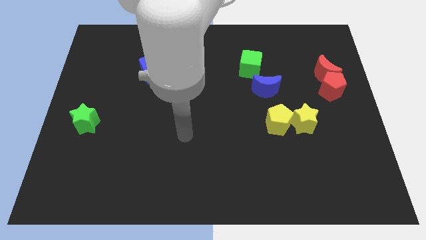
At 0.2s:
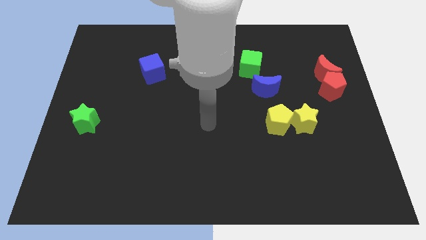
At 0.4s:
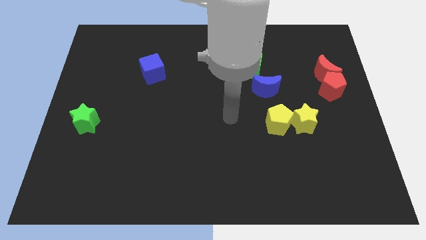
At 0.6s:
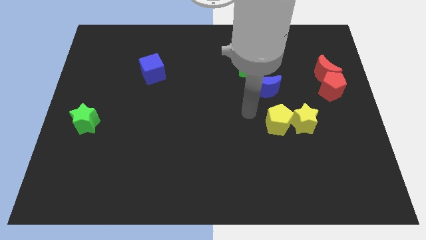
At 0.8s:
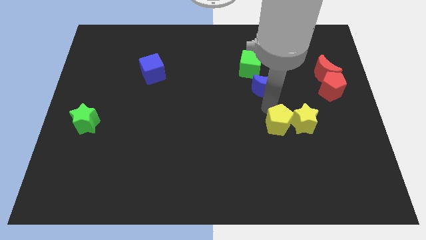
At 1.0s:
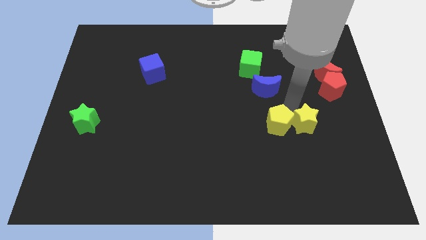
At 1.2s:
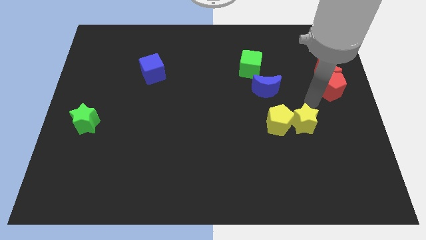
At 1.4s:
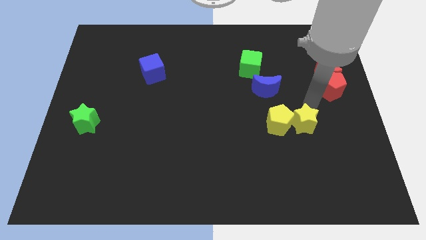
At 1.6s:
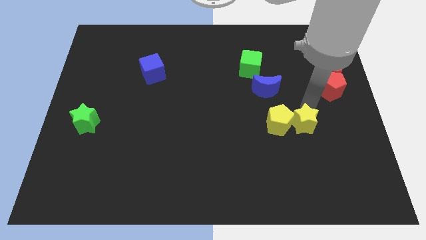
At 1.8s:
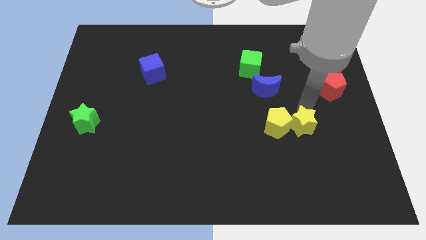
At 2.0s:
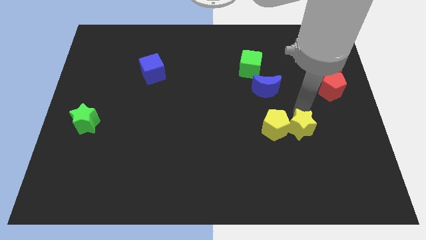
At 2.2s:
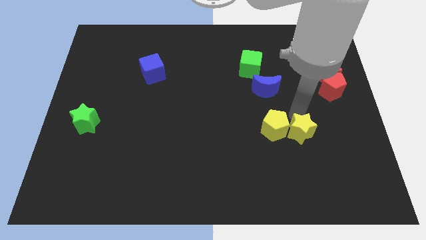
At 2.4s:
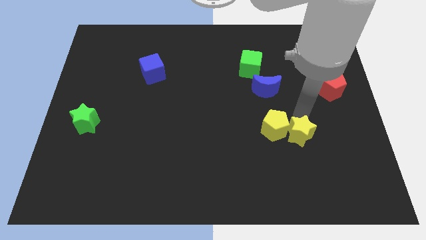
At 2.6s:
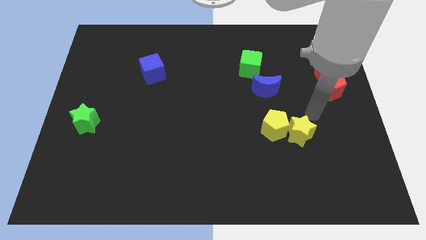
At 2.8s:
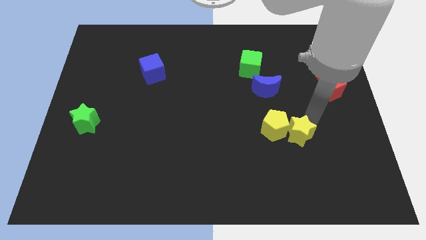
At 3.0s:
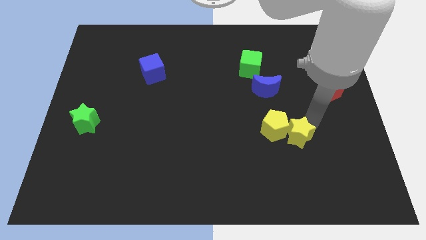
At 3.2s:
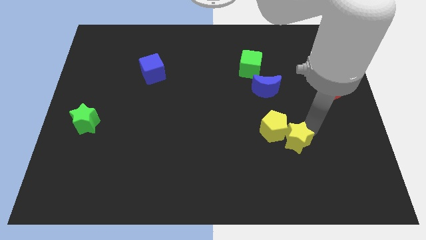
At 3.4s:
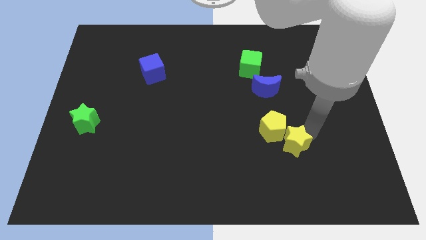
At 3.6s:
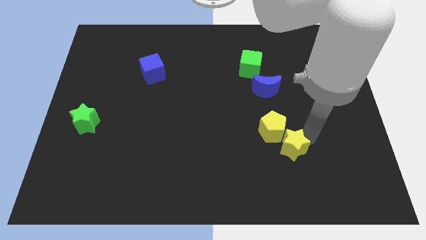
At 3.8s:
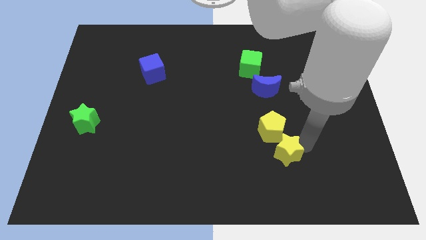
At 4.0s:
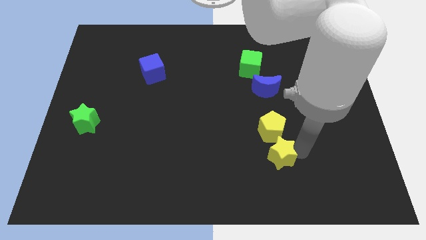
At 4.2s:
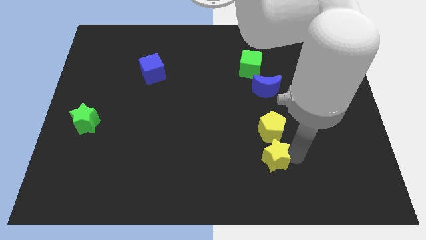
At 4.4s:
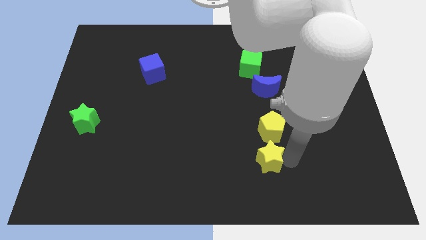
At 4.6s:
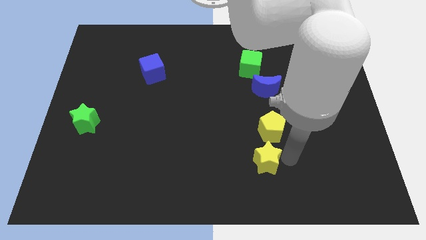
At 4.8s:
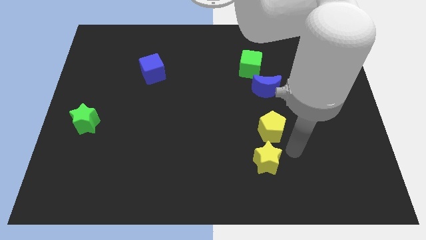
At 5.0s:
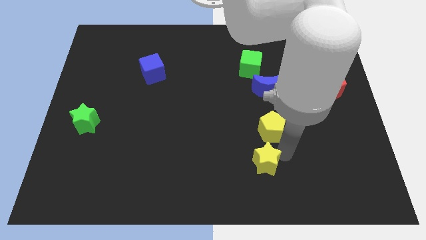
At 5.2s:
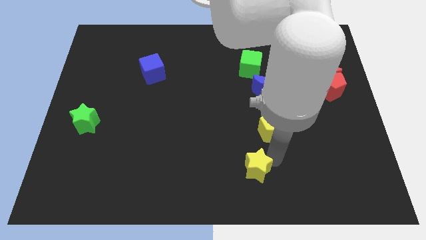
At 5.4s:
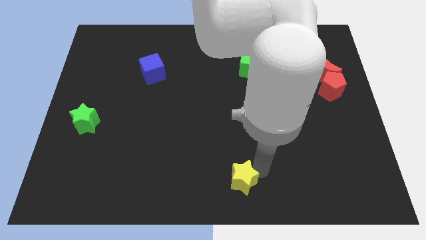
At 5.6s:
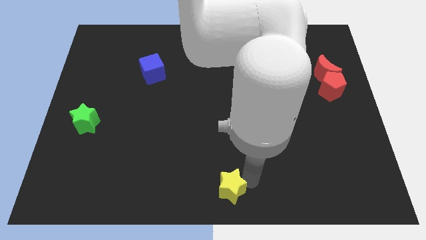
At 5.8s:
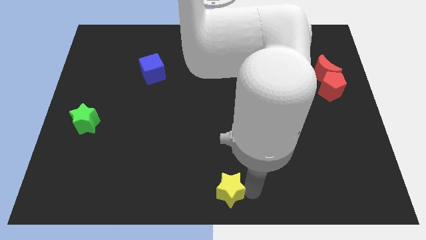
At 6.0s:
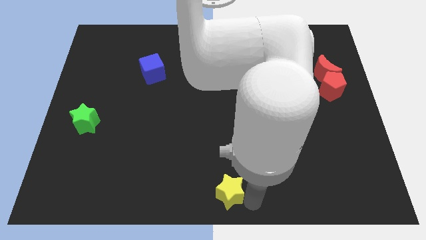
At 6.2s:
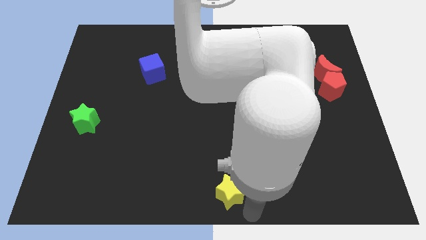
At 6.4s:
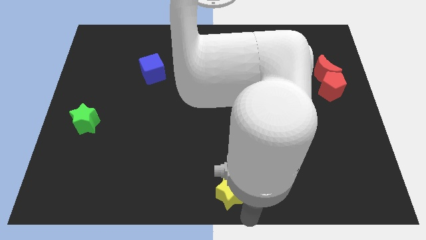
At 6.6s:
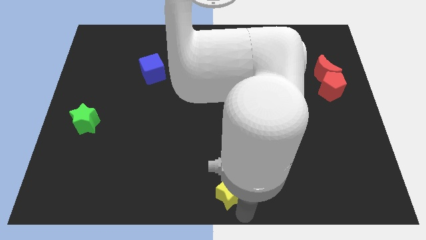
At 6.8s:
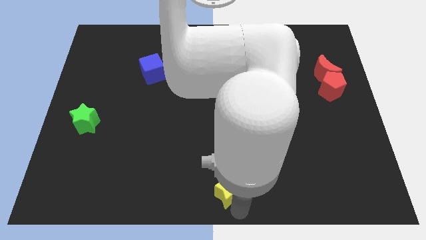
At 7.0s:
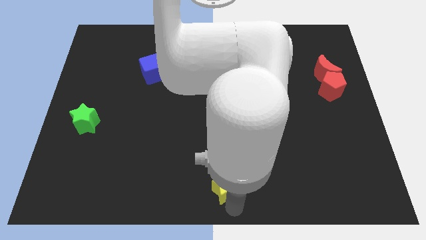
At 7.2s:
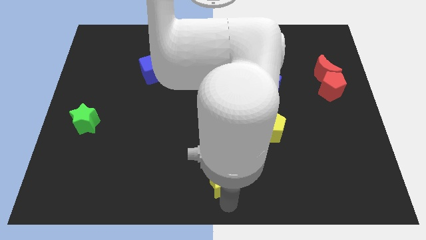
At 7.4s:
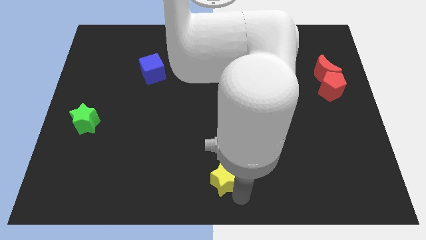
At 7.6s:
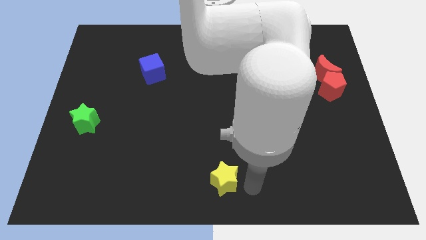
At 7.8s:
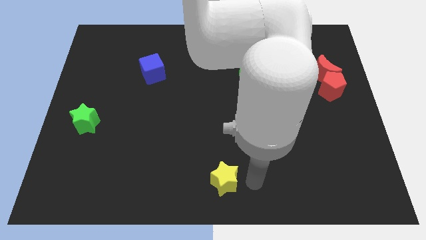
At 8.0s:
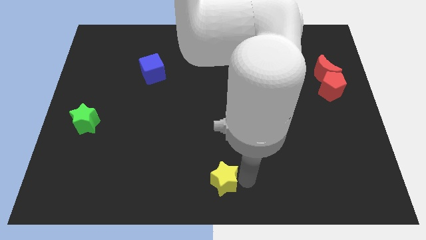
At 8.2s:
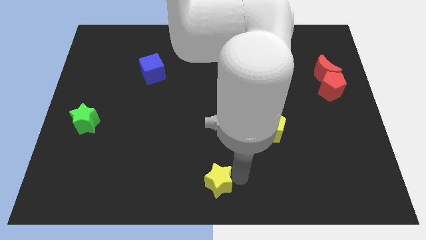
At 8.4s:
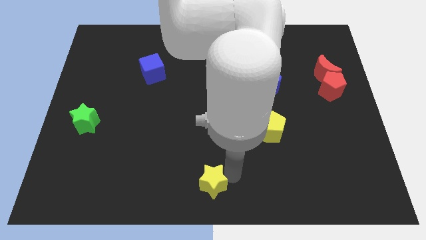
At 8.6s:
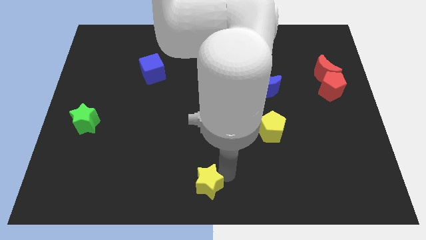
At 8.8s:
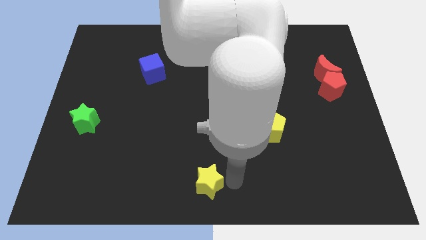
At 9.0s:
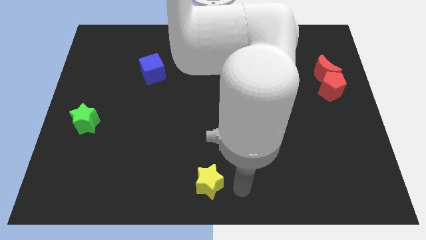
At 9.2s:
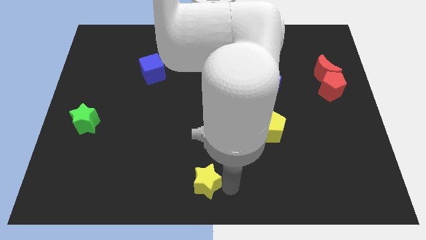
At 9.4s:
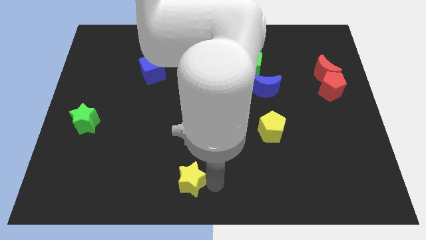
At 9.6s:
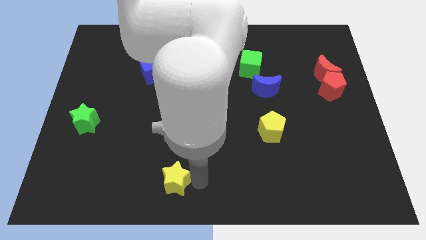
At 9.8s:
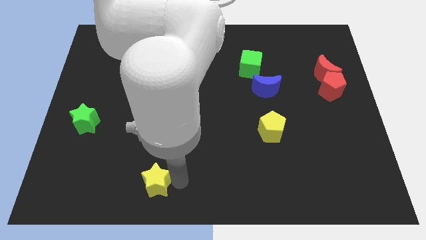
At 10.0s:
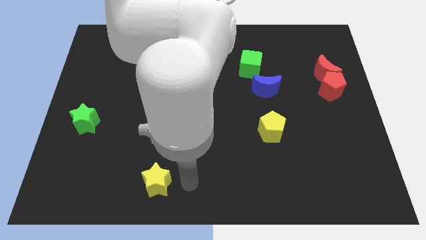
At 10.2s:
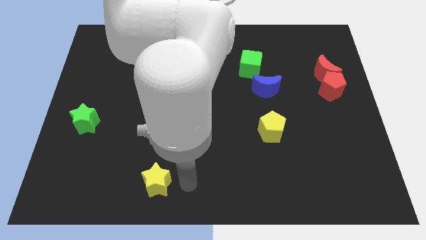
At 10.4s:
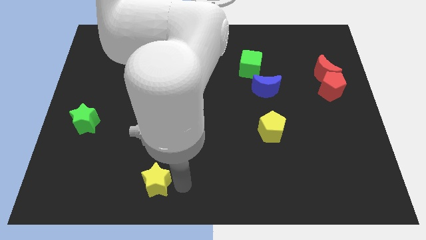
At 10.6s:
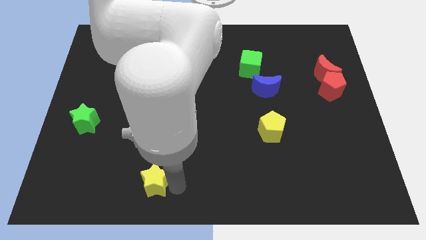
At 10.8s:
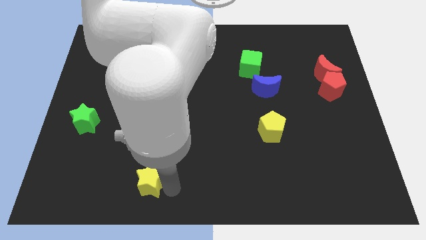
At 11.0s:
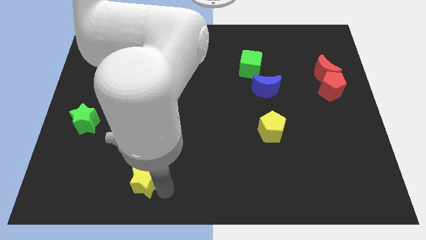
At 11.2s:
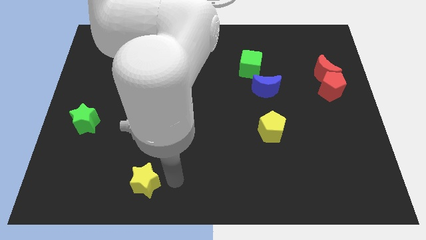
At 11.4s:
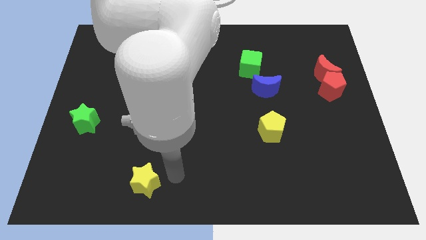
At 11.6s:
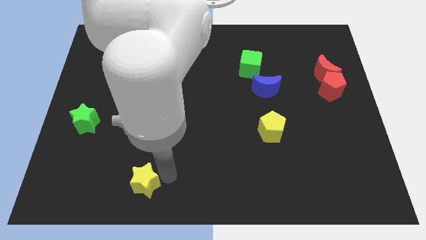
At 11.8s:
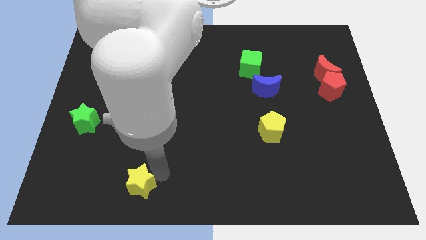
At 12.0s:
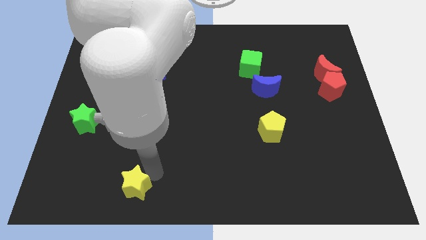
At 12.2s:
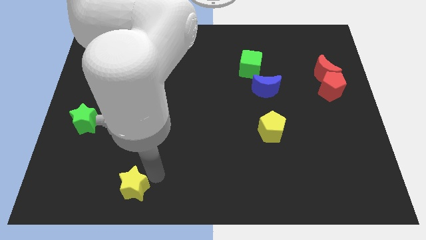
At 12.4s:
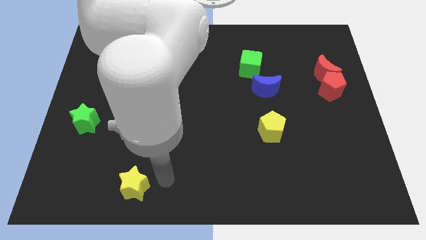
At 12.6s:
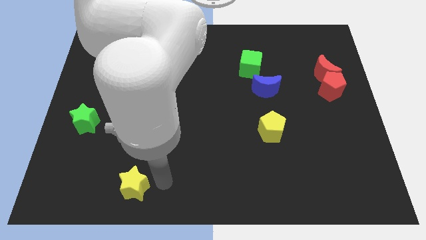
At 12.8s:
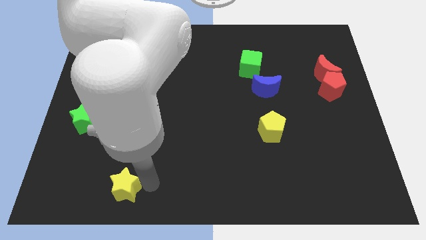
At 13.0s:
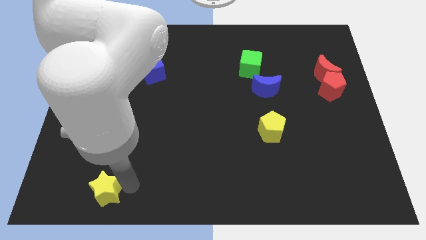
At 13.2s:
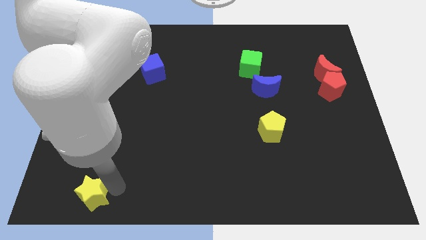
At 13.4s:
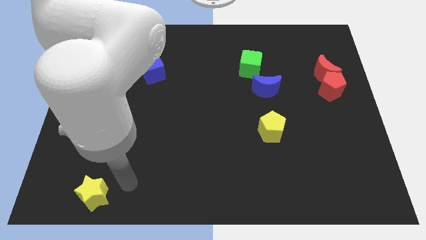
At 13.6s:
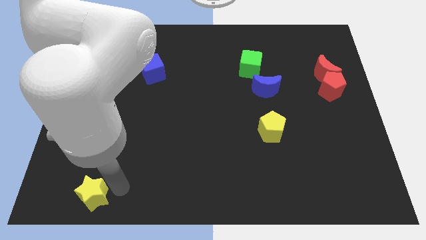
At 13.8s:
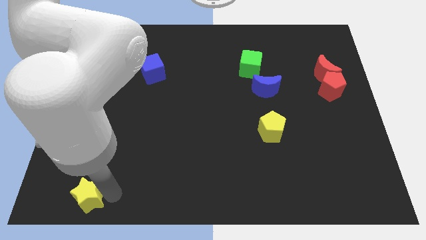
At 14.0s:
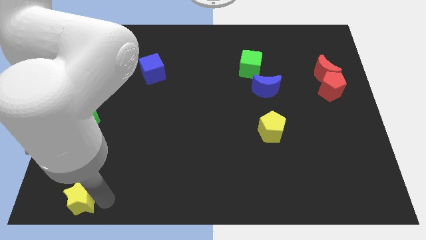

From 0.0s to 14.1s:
put the yellow star to the bottom left of the board
